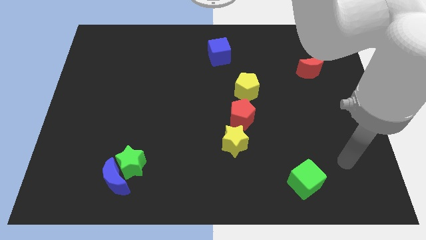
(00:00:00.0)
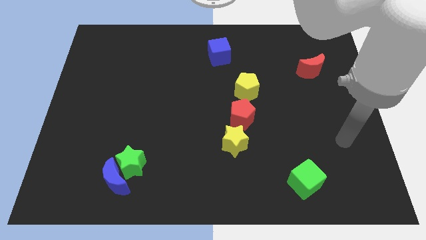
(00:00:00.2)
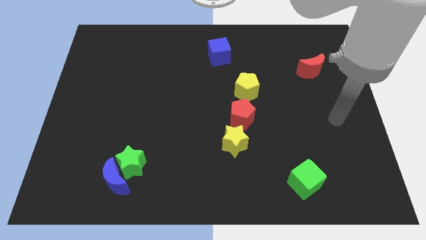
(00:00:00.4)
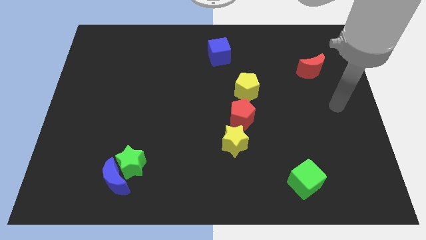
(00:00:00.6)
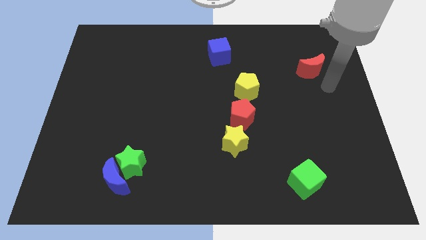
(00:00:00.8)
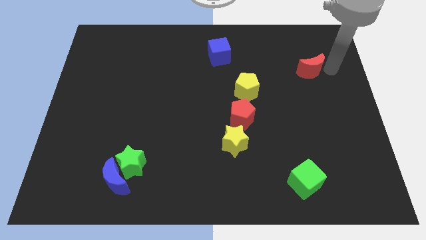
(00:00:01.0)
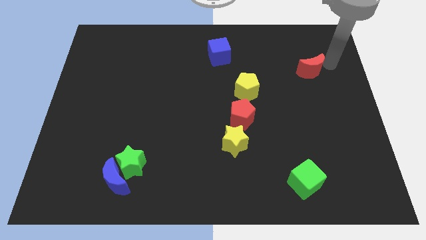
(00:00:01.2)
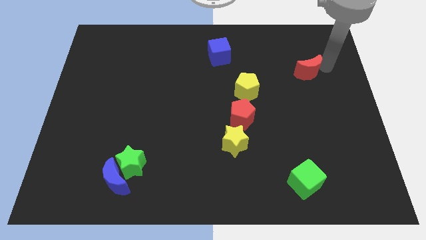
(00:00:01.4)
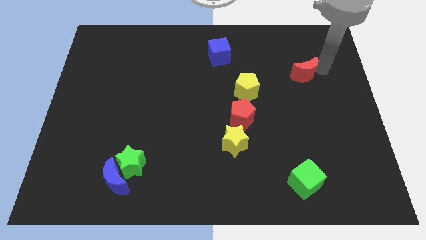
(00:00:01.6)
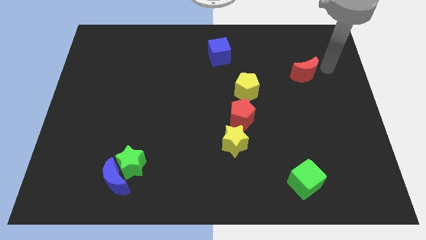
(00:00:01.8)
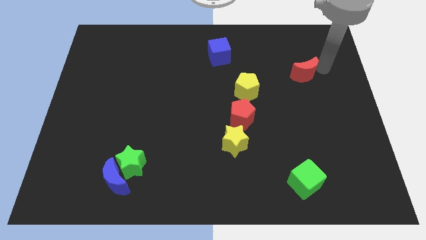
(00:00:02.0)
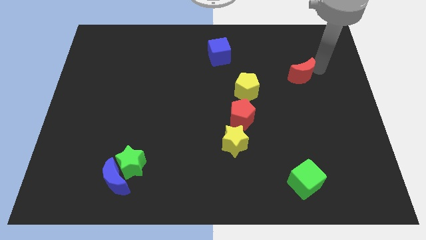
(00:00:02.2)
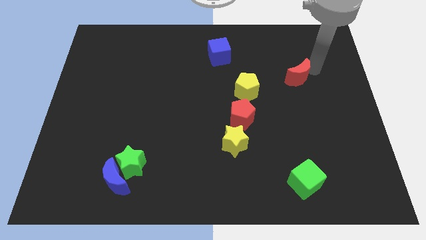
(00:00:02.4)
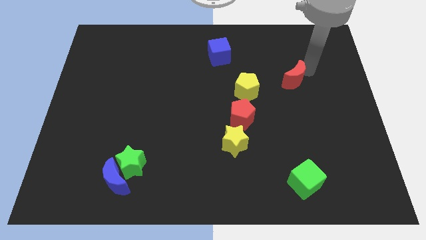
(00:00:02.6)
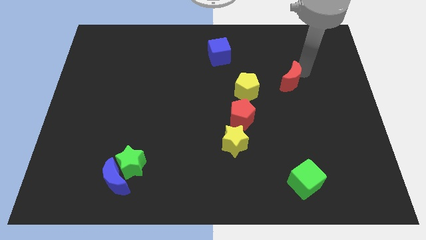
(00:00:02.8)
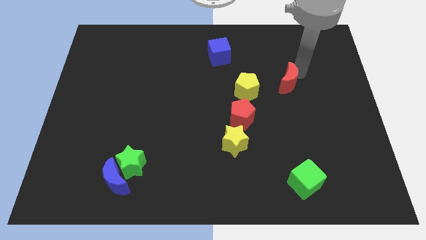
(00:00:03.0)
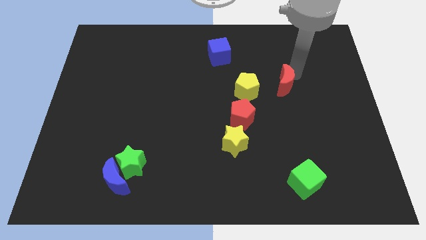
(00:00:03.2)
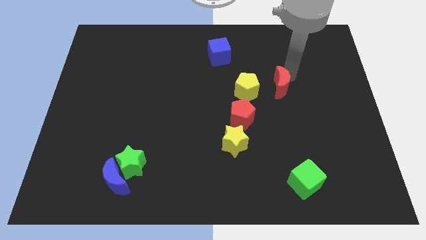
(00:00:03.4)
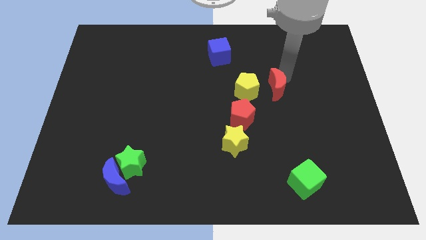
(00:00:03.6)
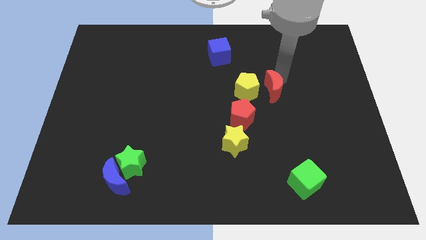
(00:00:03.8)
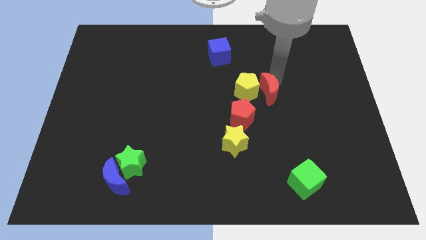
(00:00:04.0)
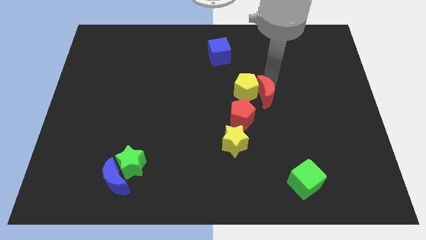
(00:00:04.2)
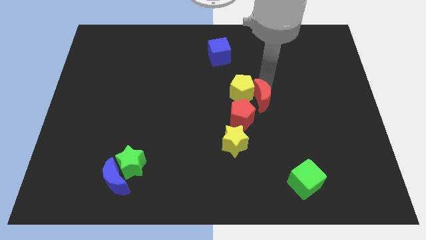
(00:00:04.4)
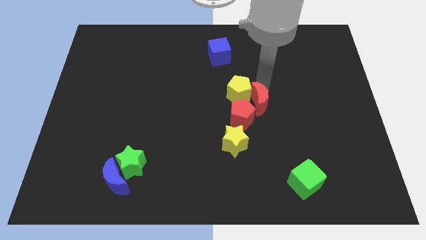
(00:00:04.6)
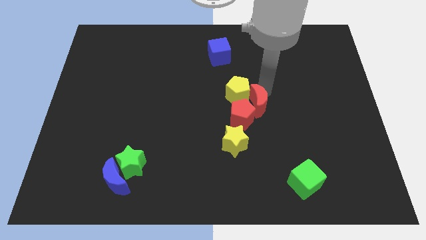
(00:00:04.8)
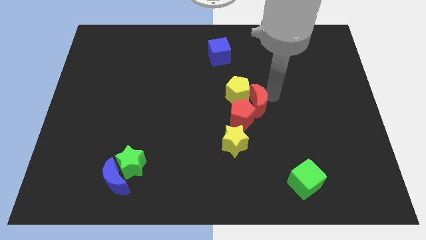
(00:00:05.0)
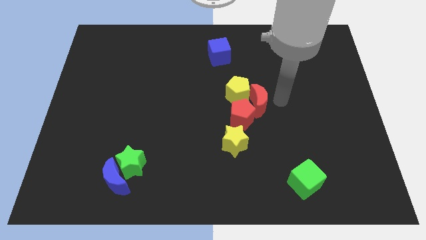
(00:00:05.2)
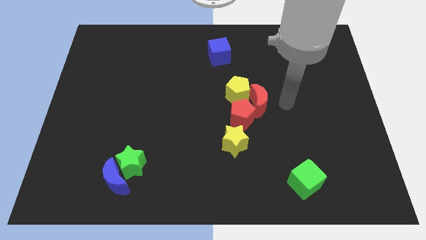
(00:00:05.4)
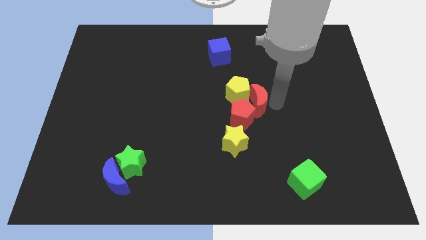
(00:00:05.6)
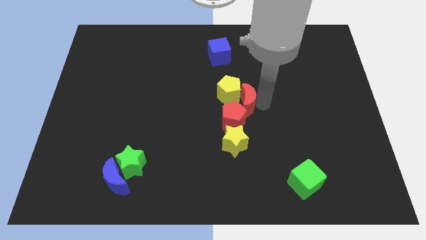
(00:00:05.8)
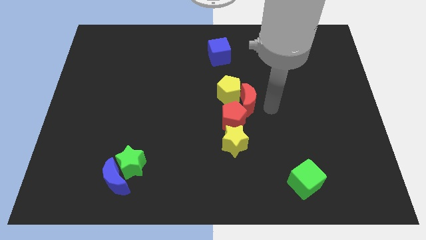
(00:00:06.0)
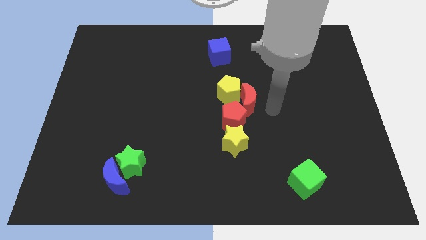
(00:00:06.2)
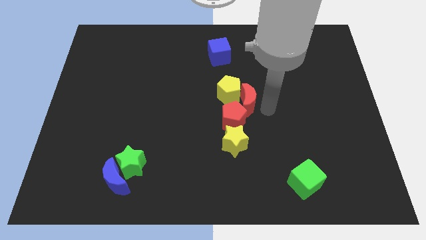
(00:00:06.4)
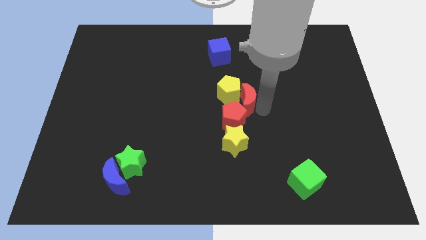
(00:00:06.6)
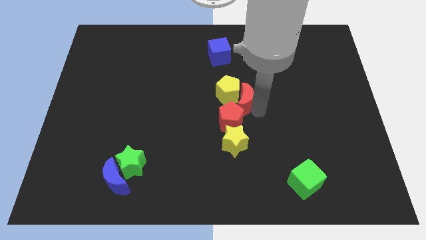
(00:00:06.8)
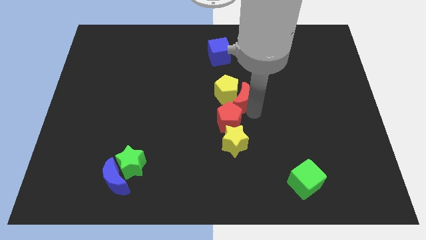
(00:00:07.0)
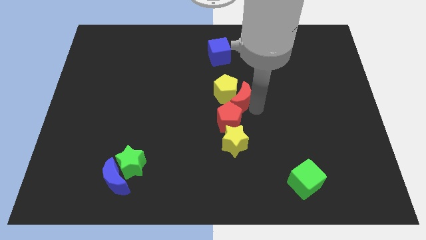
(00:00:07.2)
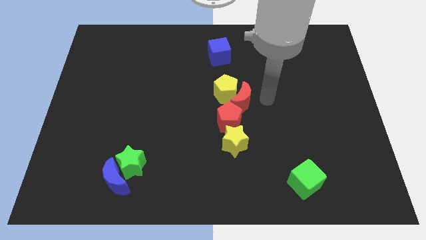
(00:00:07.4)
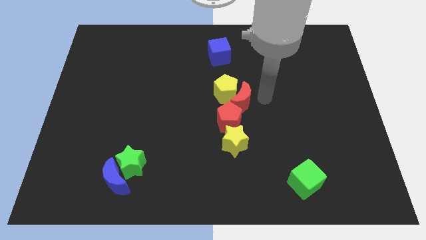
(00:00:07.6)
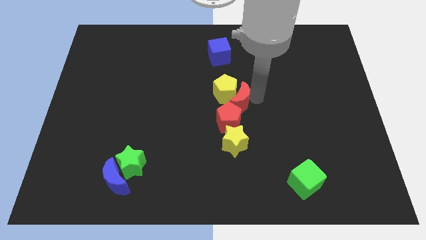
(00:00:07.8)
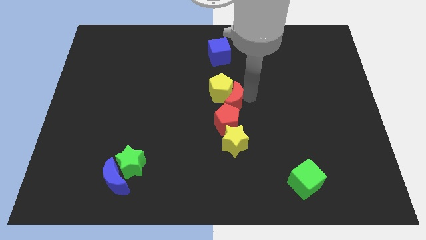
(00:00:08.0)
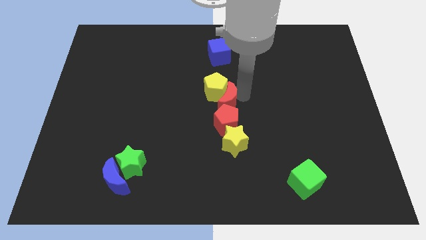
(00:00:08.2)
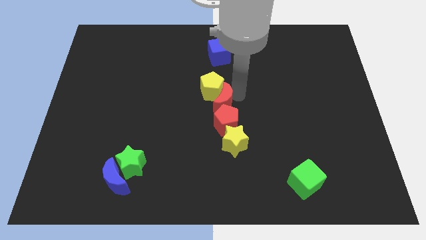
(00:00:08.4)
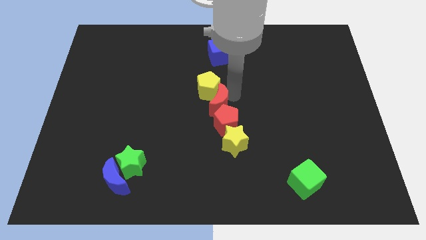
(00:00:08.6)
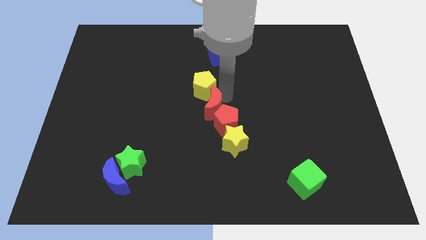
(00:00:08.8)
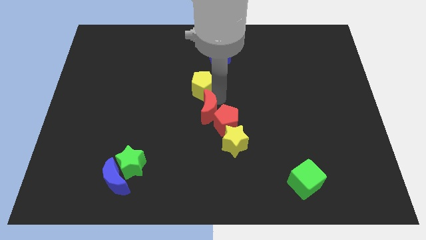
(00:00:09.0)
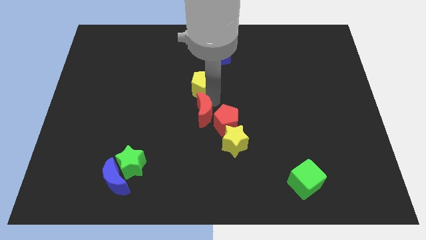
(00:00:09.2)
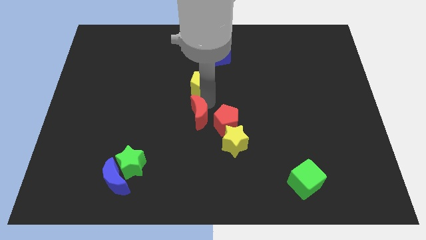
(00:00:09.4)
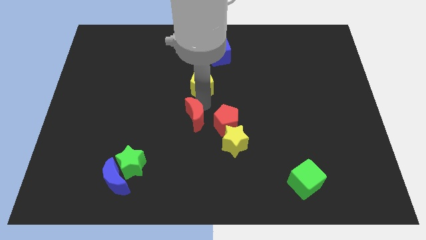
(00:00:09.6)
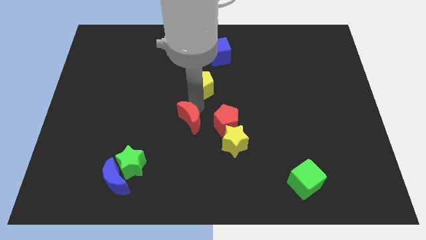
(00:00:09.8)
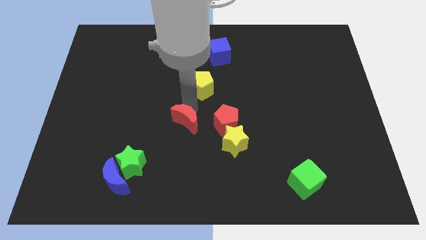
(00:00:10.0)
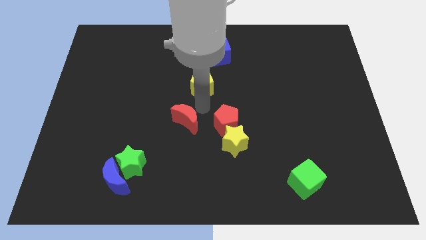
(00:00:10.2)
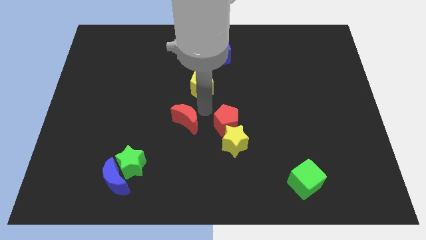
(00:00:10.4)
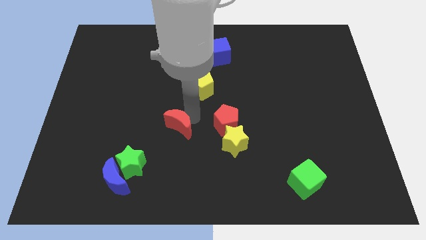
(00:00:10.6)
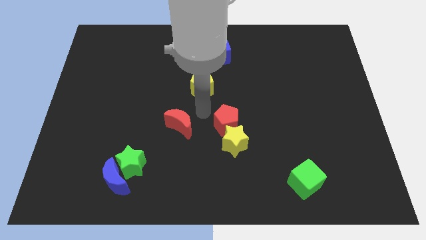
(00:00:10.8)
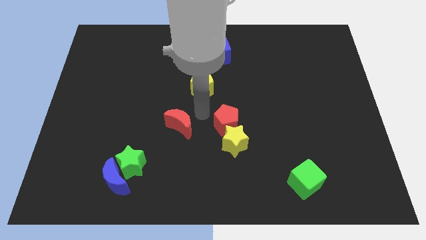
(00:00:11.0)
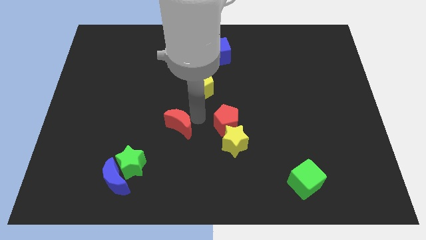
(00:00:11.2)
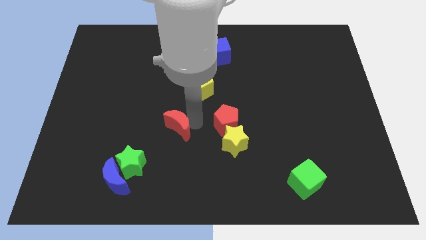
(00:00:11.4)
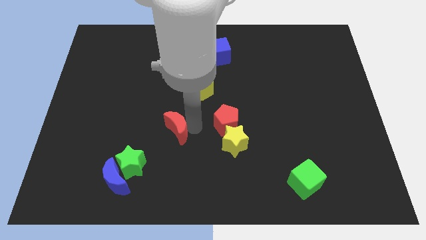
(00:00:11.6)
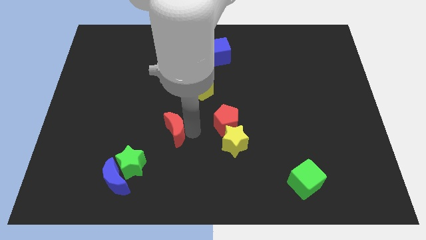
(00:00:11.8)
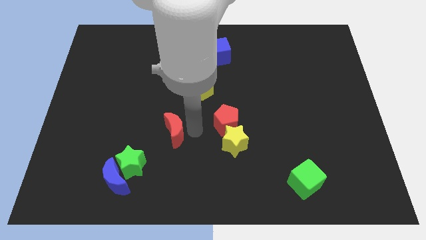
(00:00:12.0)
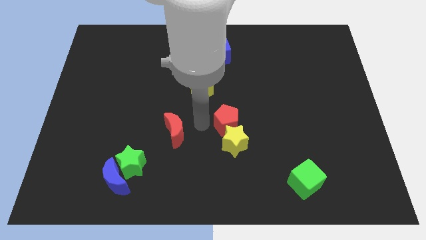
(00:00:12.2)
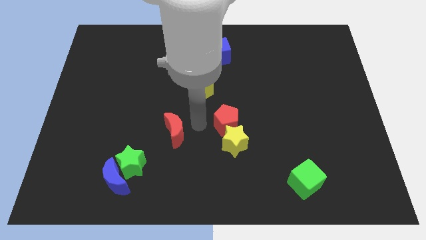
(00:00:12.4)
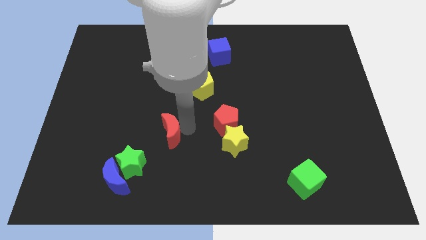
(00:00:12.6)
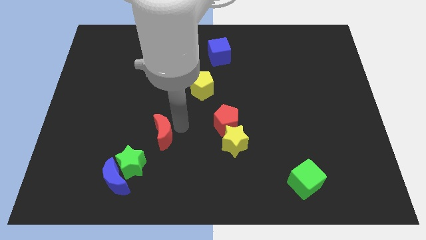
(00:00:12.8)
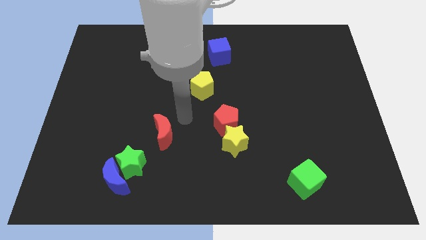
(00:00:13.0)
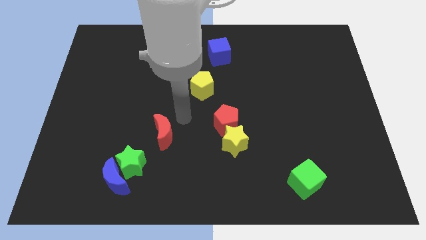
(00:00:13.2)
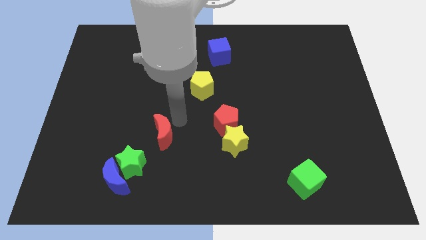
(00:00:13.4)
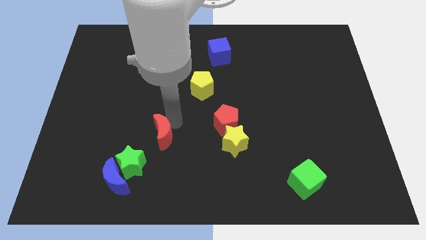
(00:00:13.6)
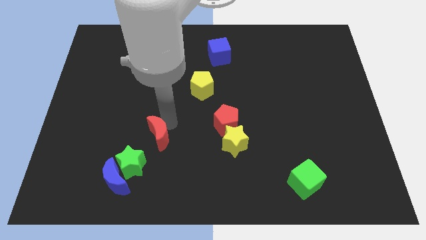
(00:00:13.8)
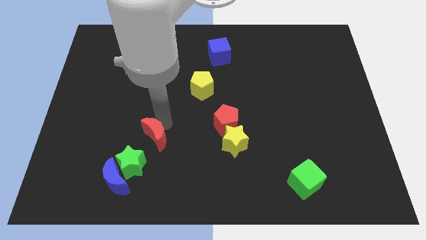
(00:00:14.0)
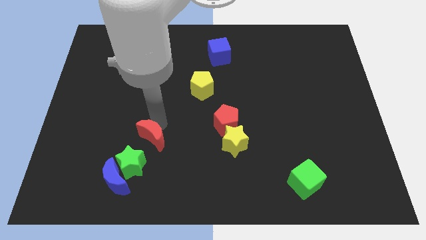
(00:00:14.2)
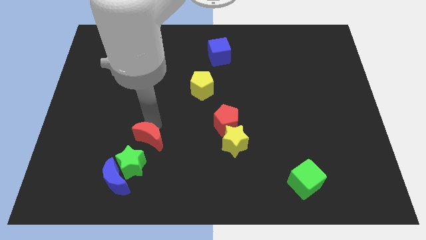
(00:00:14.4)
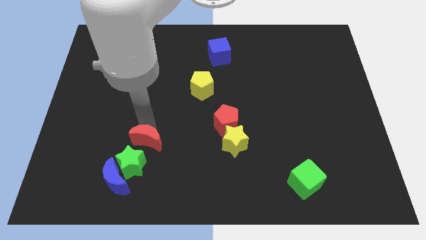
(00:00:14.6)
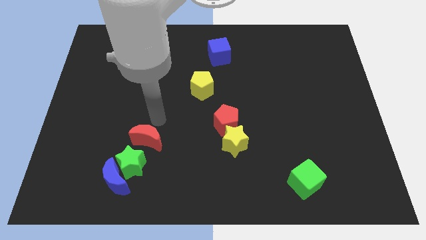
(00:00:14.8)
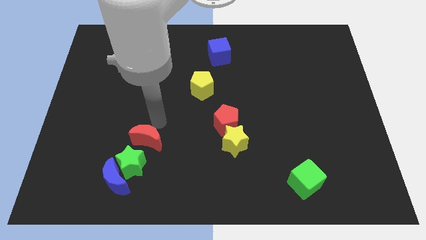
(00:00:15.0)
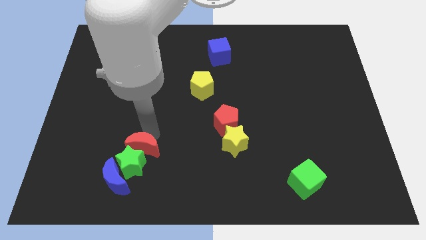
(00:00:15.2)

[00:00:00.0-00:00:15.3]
push the red moon towards the green star
